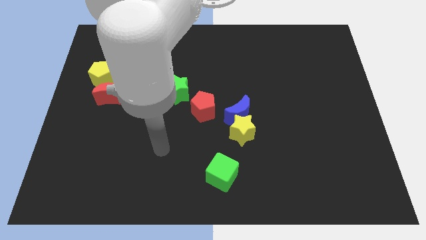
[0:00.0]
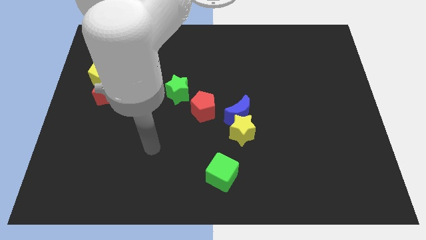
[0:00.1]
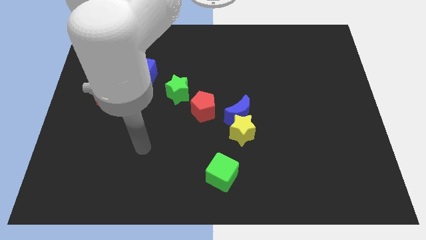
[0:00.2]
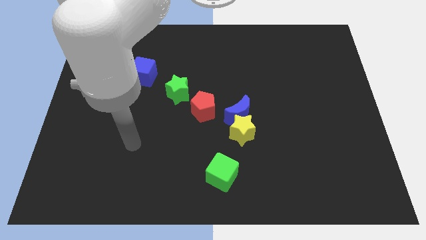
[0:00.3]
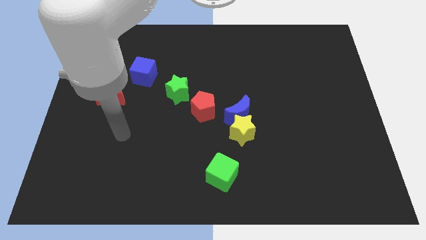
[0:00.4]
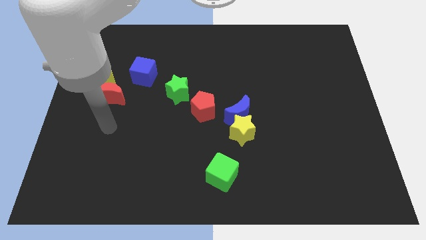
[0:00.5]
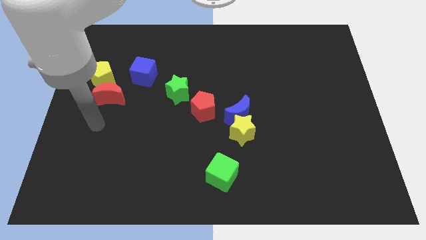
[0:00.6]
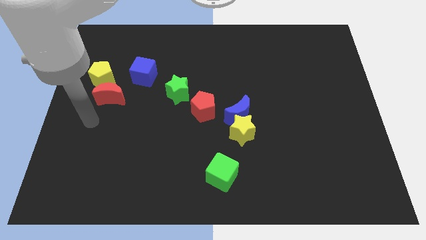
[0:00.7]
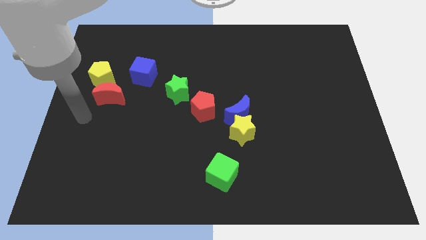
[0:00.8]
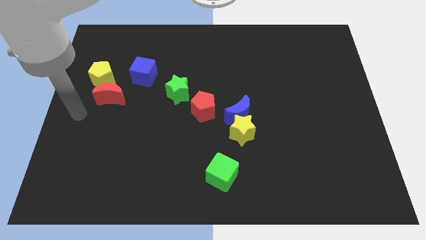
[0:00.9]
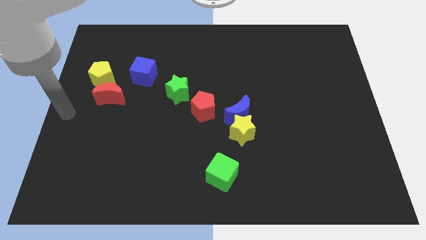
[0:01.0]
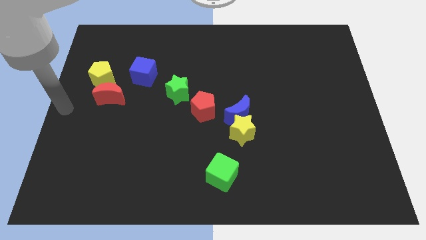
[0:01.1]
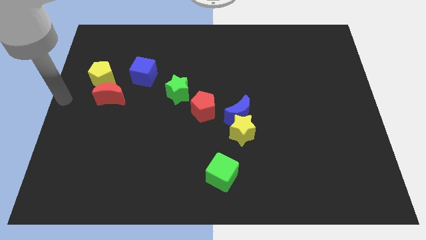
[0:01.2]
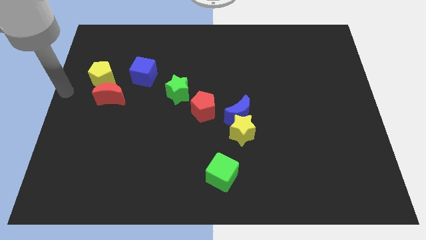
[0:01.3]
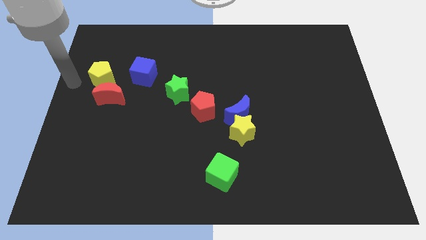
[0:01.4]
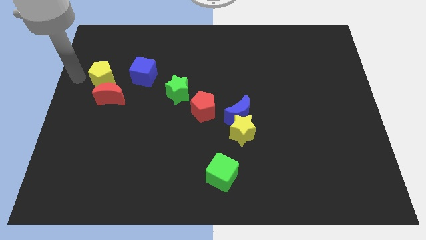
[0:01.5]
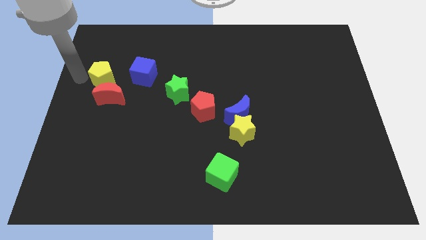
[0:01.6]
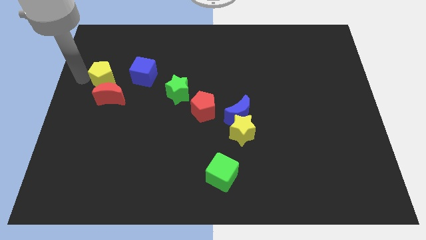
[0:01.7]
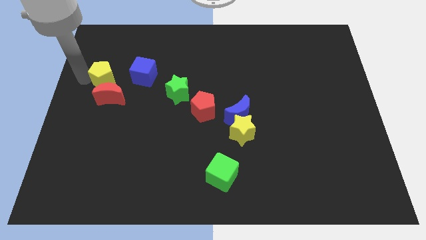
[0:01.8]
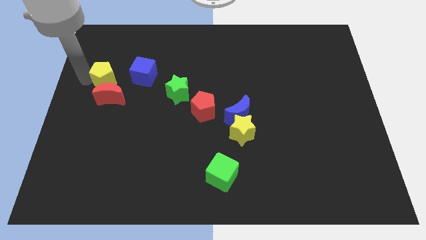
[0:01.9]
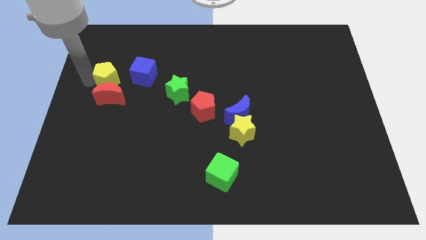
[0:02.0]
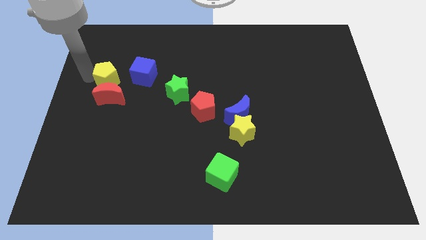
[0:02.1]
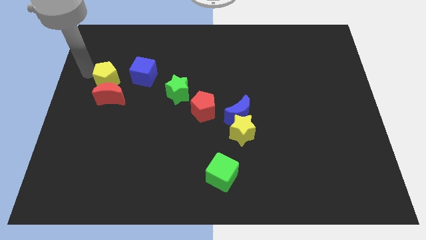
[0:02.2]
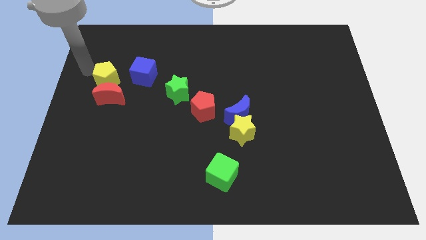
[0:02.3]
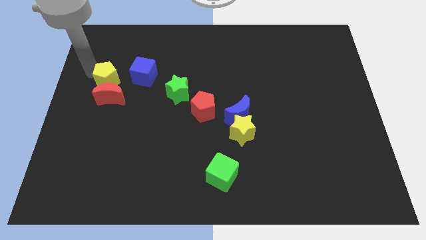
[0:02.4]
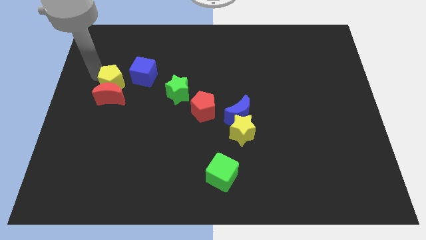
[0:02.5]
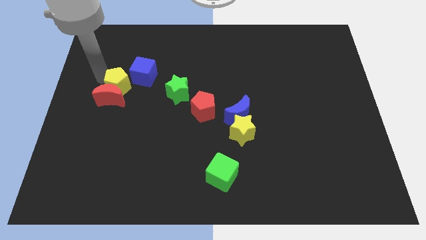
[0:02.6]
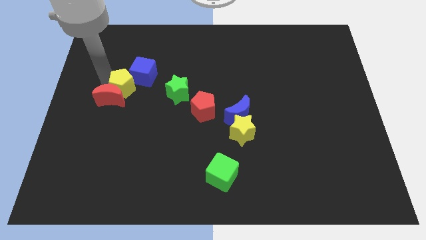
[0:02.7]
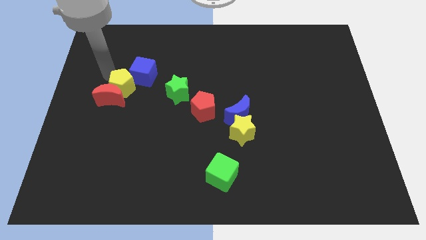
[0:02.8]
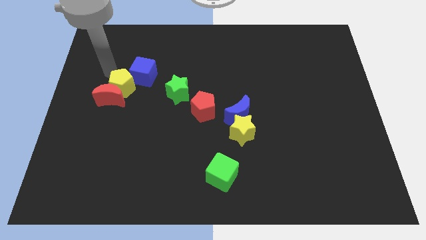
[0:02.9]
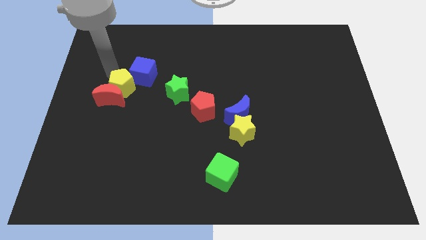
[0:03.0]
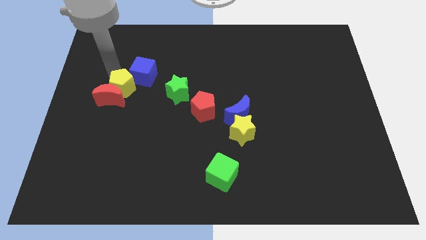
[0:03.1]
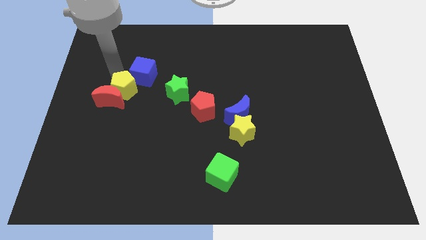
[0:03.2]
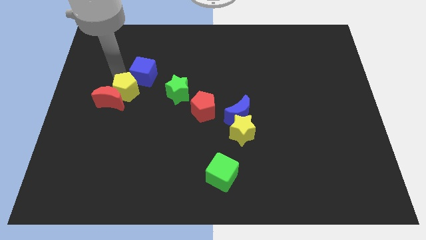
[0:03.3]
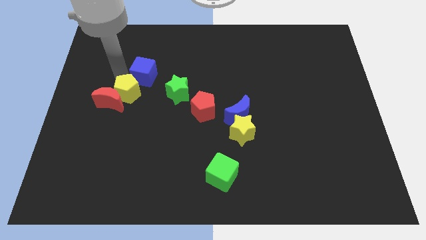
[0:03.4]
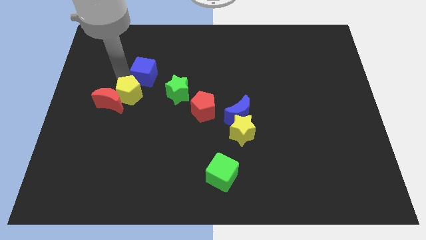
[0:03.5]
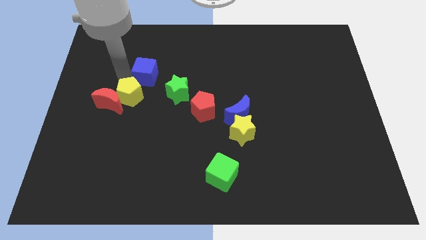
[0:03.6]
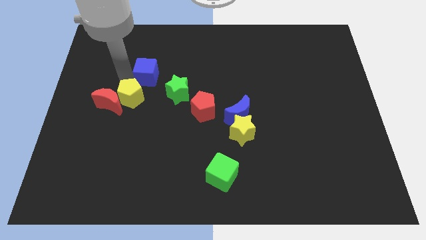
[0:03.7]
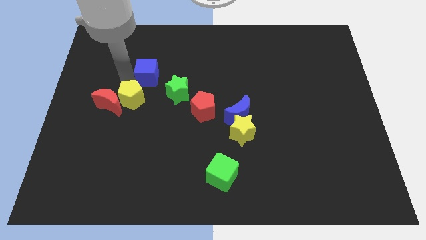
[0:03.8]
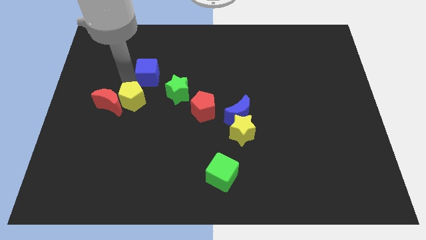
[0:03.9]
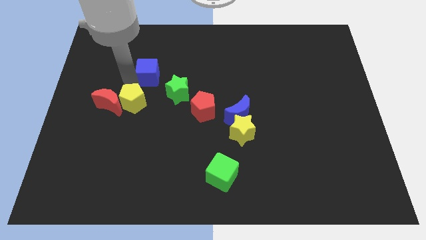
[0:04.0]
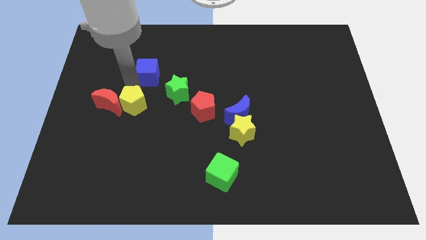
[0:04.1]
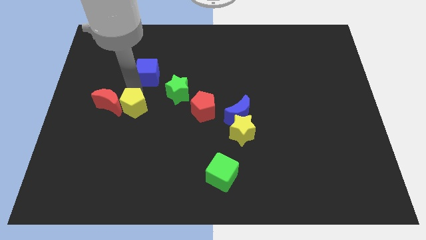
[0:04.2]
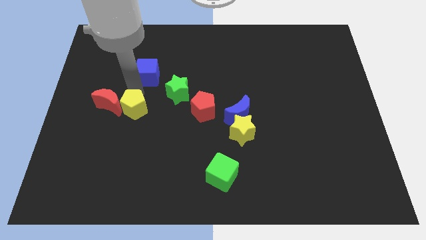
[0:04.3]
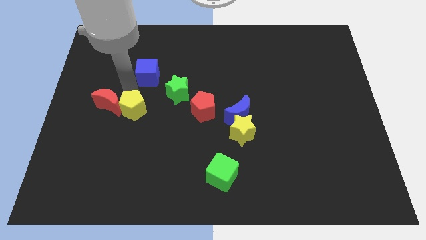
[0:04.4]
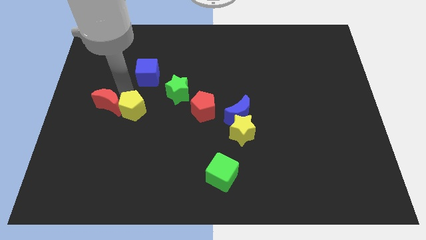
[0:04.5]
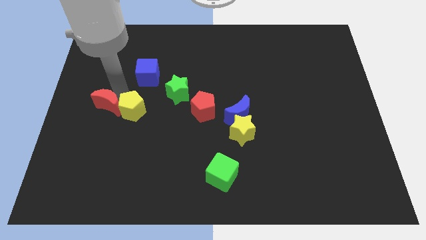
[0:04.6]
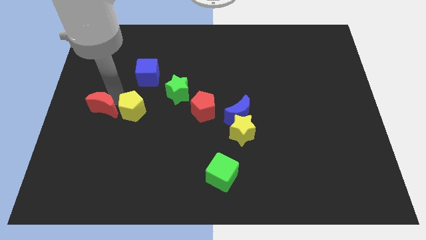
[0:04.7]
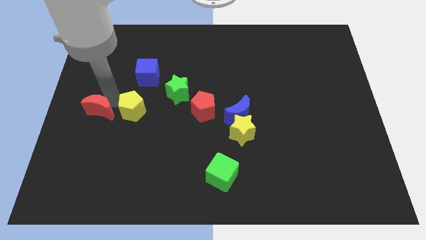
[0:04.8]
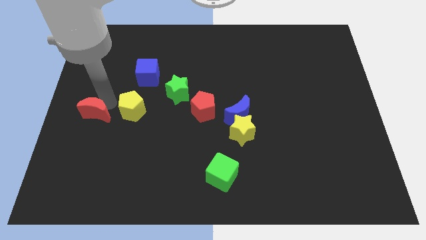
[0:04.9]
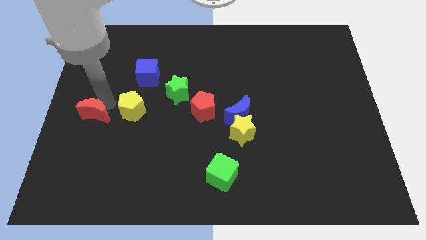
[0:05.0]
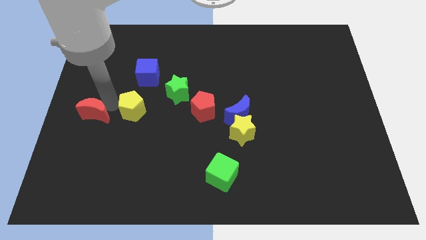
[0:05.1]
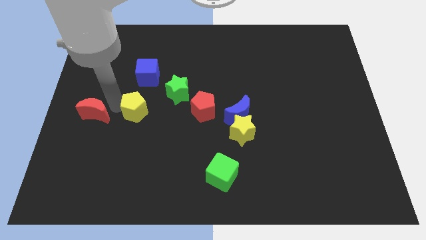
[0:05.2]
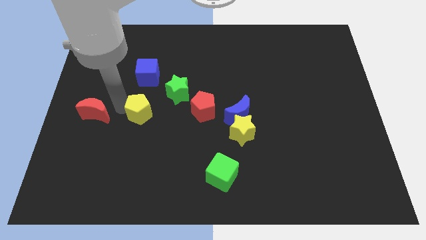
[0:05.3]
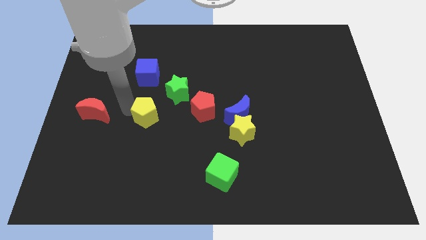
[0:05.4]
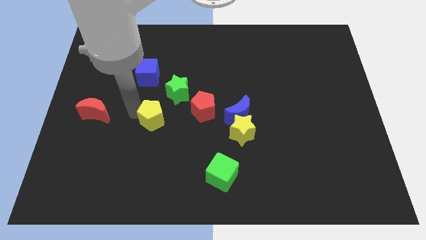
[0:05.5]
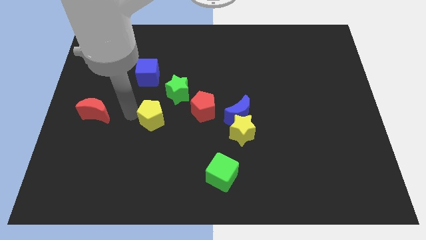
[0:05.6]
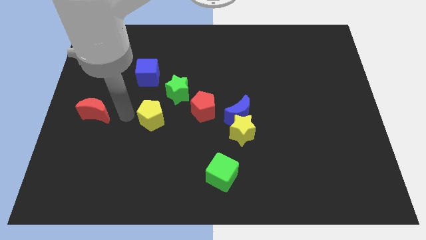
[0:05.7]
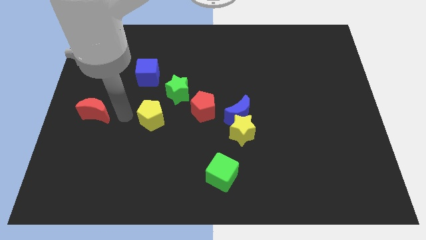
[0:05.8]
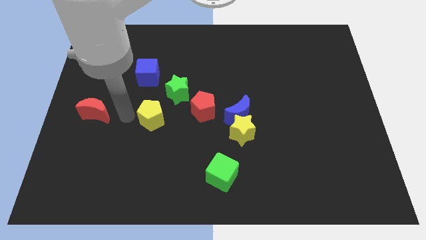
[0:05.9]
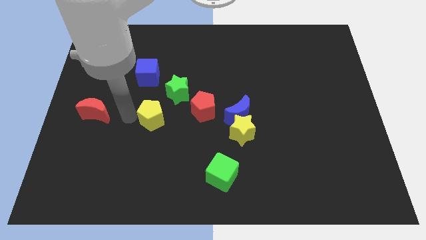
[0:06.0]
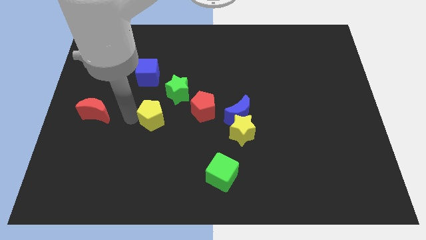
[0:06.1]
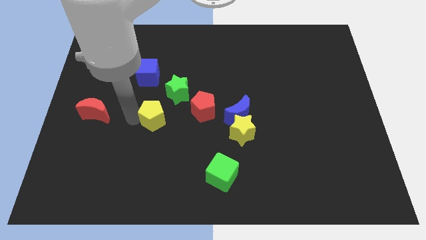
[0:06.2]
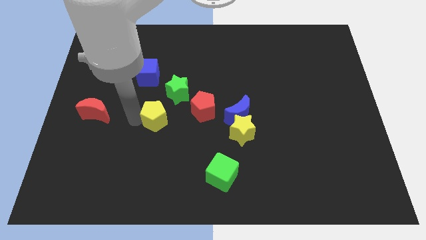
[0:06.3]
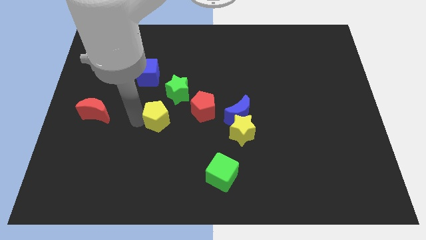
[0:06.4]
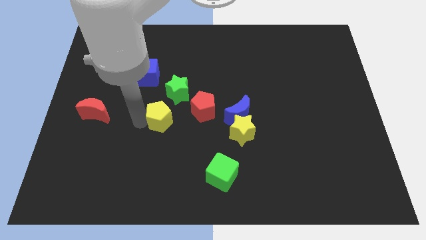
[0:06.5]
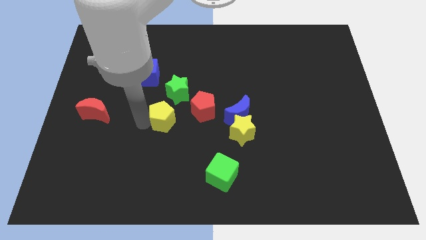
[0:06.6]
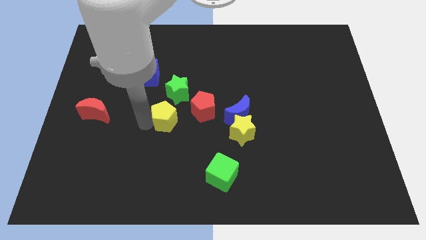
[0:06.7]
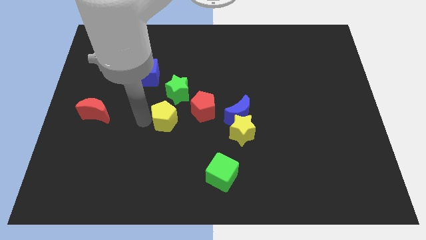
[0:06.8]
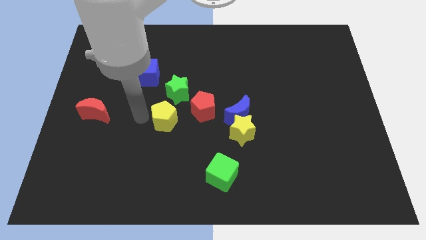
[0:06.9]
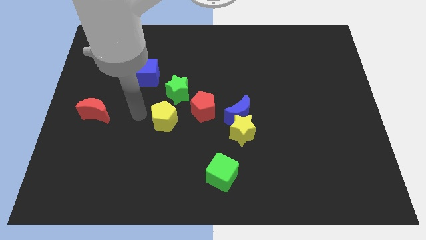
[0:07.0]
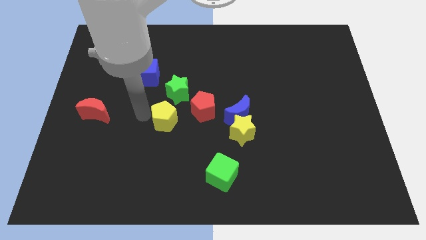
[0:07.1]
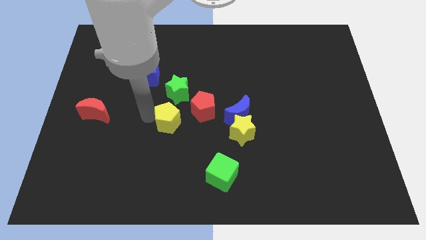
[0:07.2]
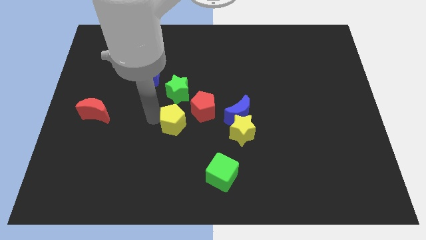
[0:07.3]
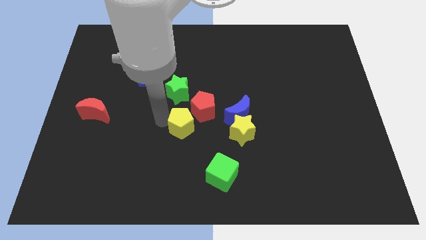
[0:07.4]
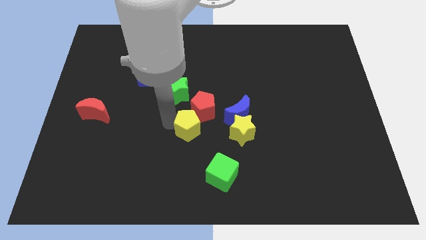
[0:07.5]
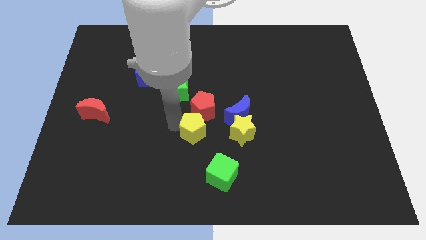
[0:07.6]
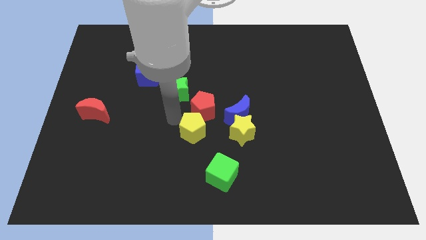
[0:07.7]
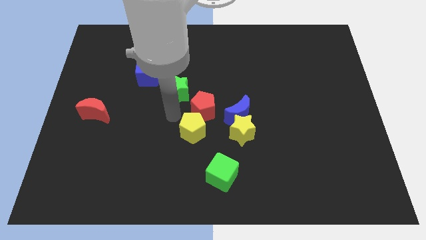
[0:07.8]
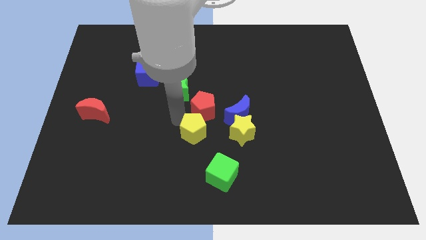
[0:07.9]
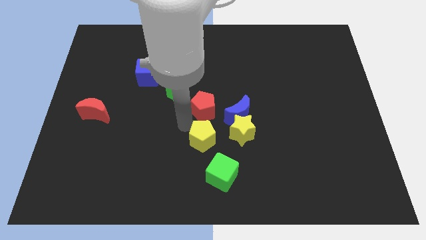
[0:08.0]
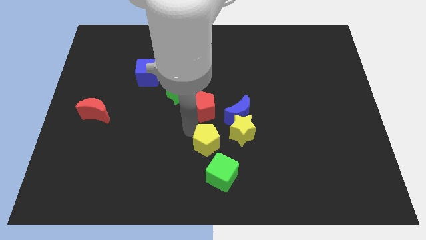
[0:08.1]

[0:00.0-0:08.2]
put the yellow pentagon to the bottom left side of the yellow star

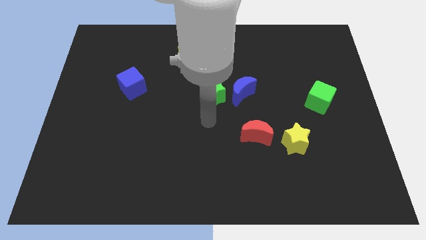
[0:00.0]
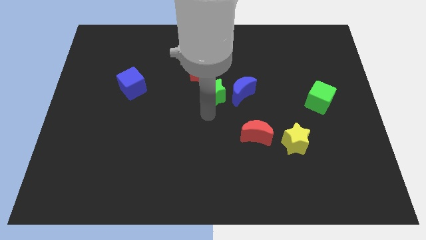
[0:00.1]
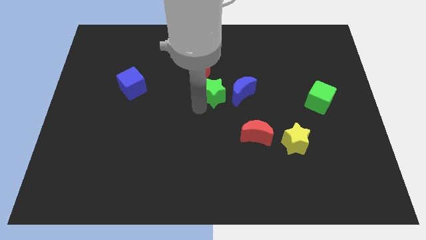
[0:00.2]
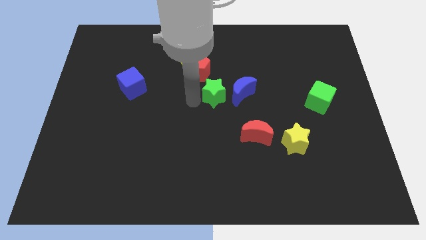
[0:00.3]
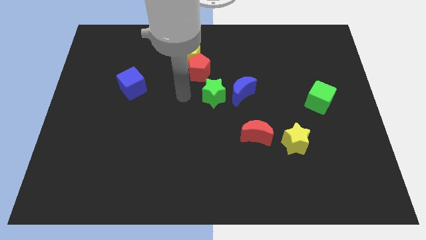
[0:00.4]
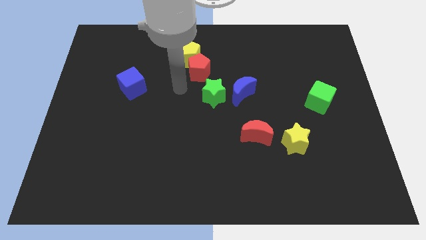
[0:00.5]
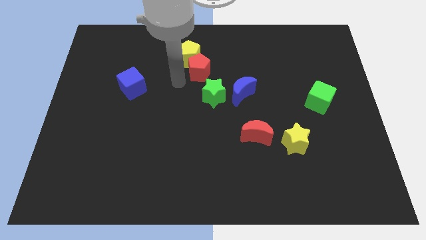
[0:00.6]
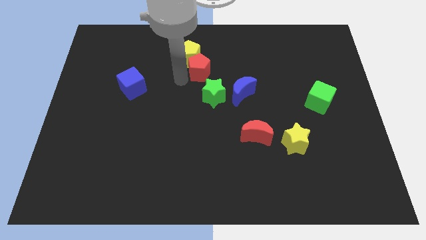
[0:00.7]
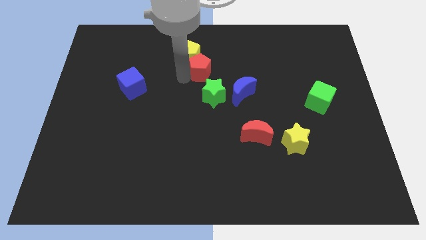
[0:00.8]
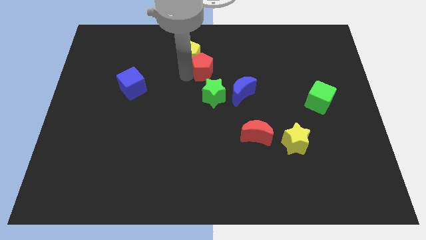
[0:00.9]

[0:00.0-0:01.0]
slide the red pentagon just right of the yellow pentagon
